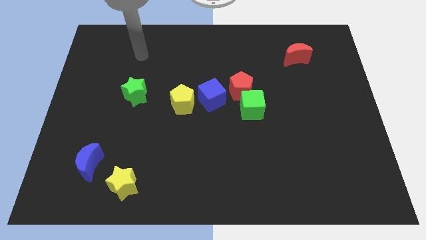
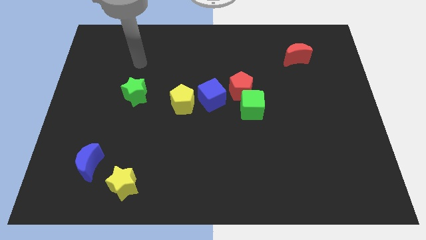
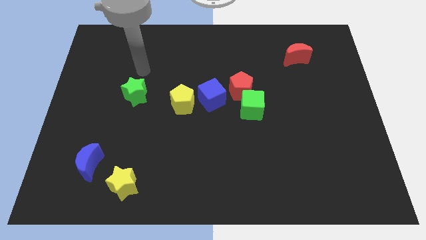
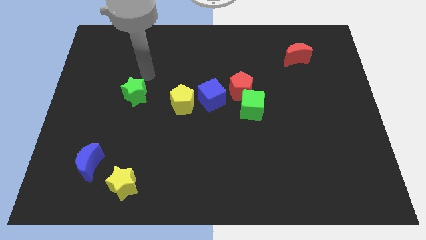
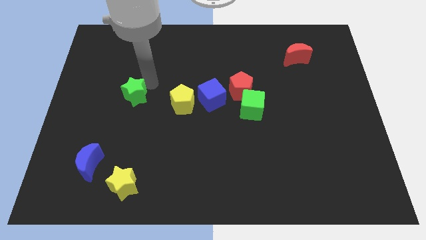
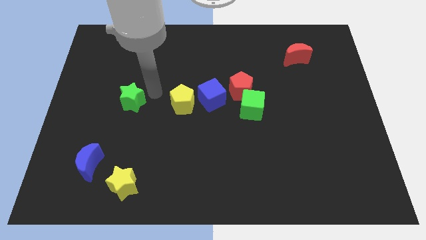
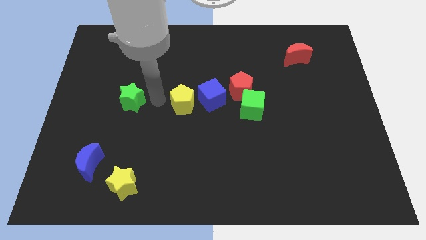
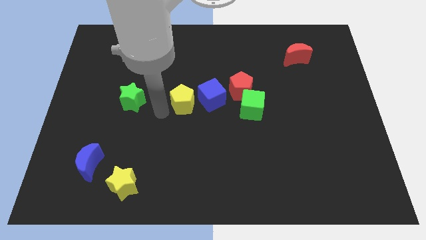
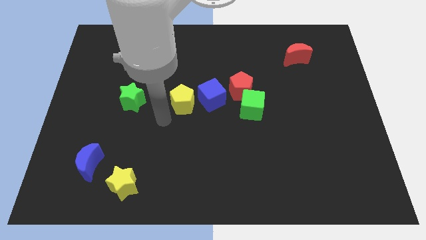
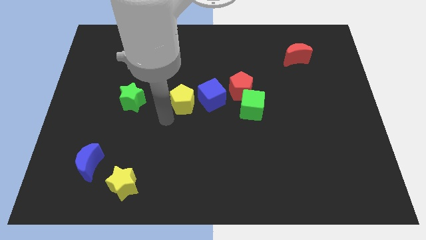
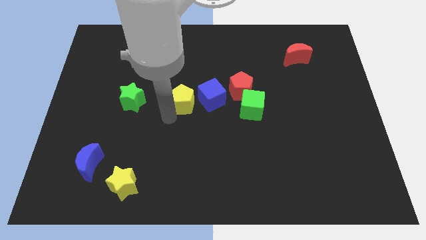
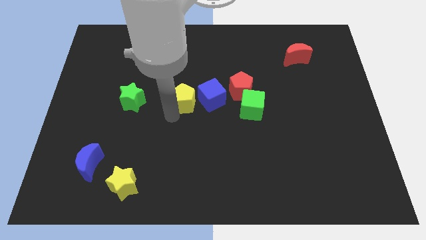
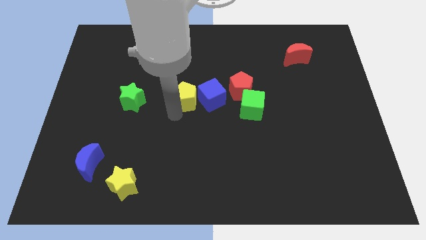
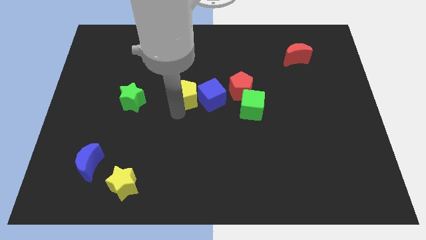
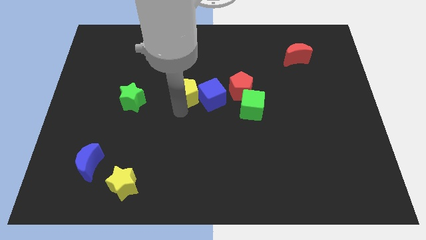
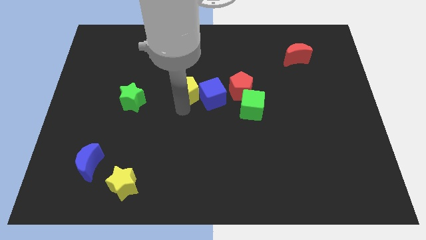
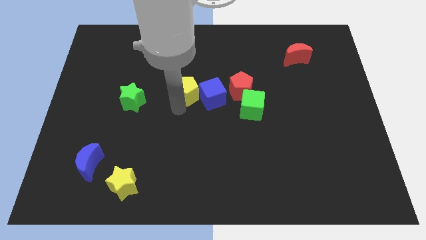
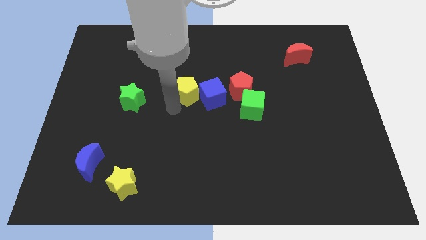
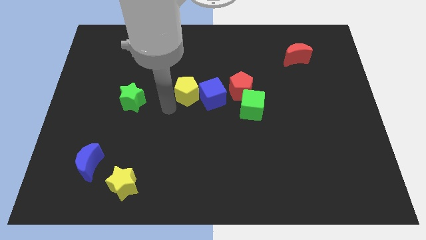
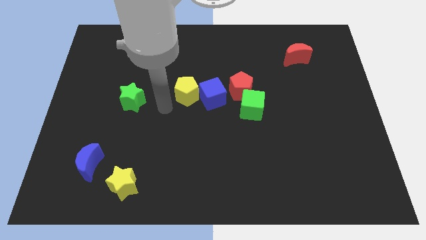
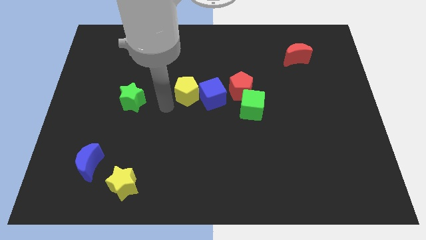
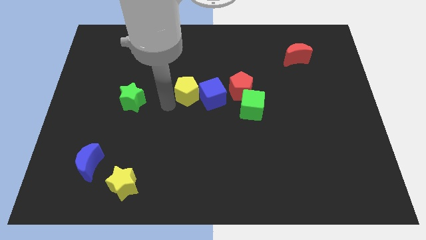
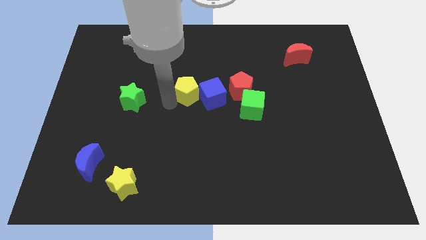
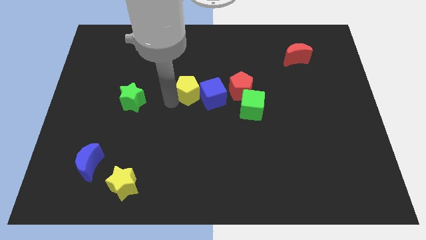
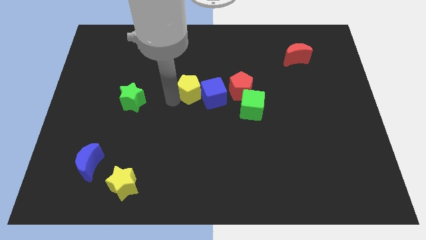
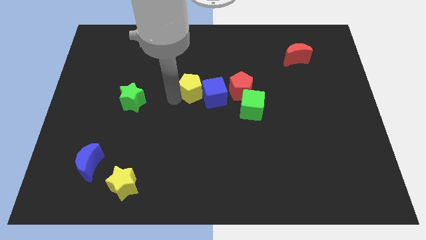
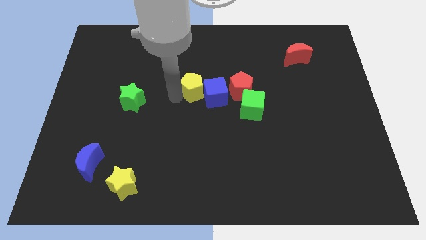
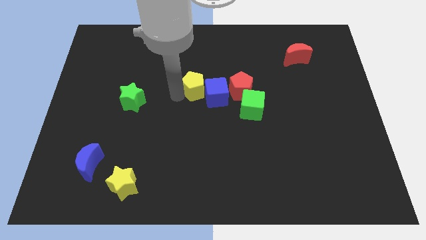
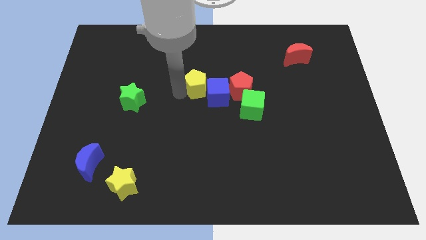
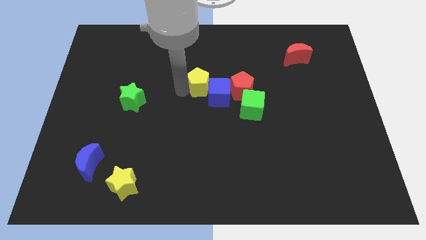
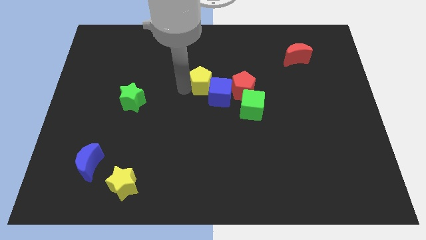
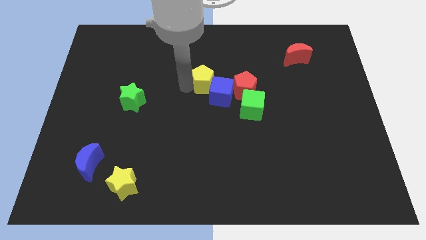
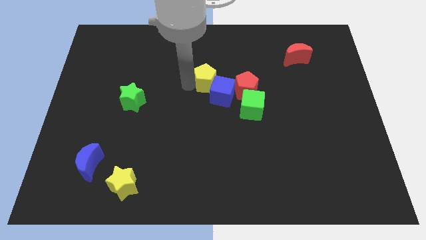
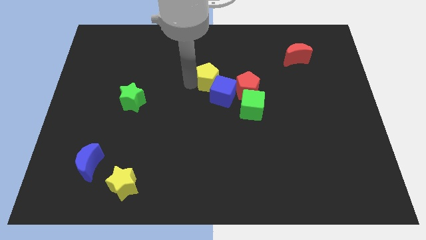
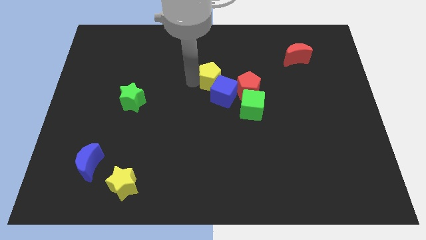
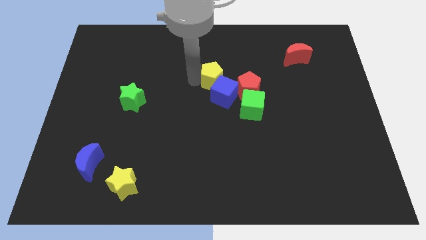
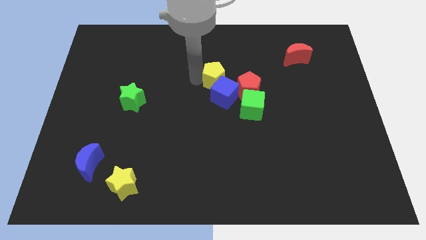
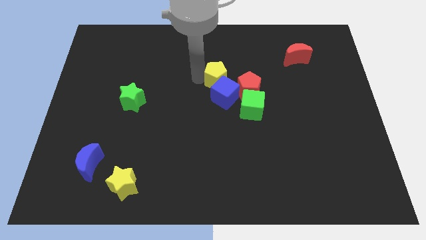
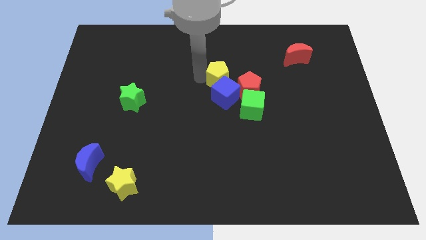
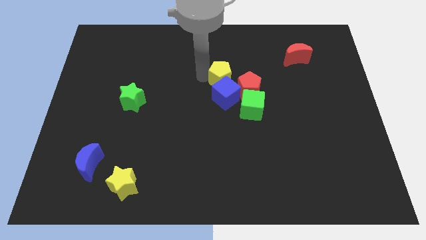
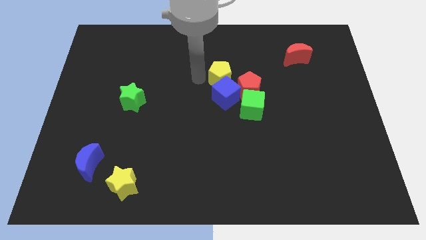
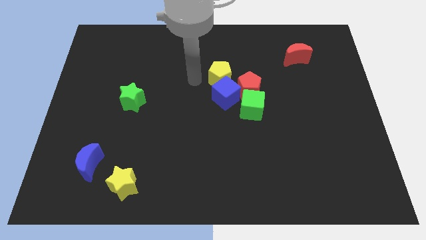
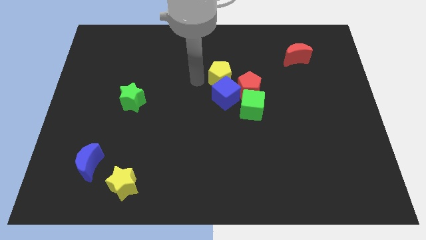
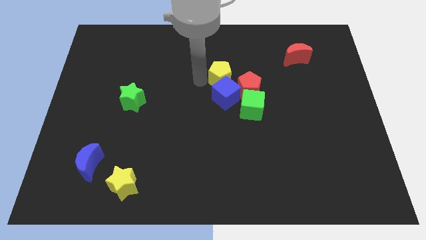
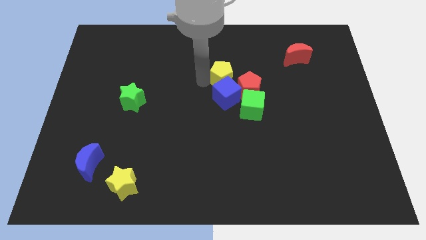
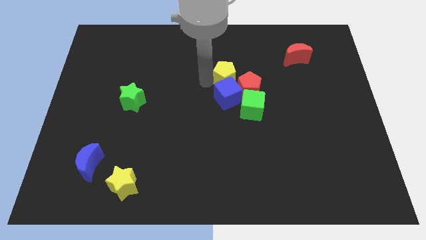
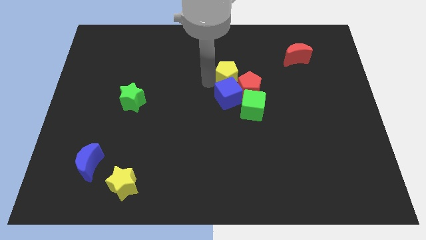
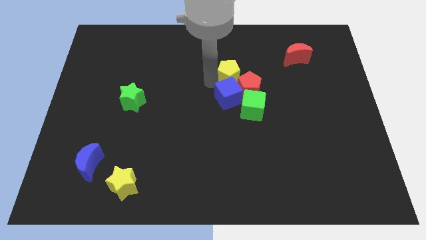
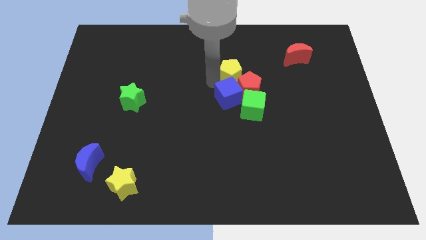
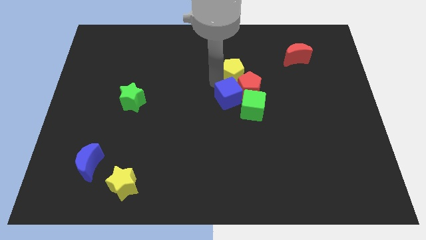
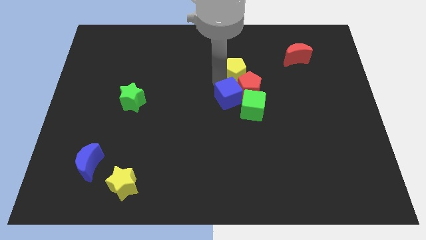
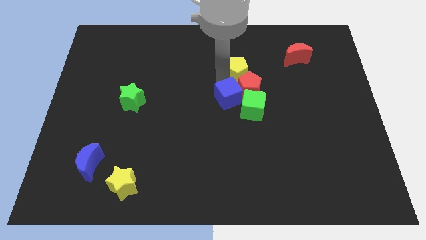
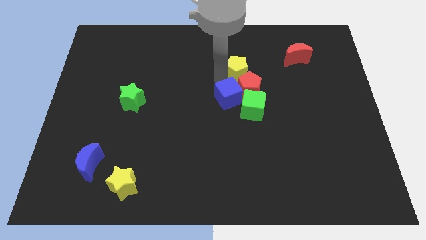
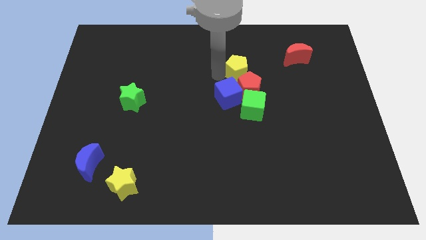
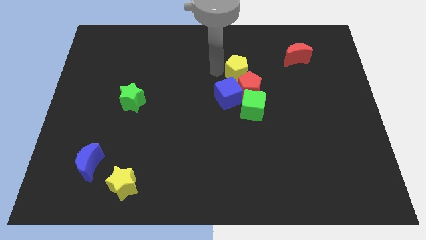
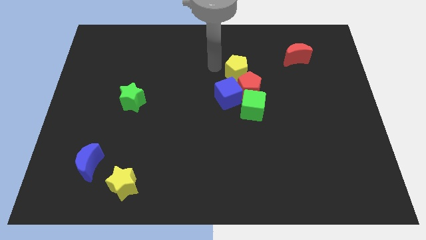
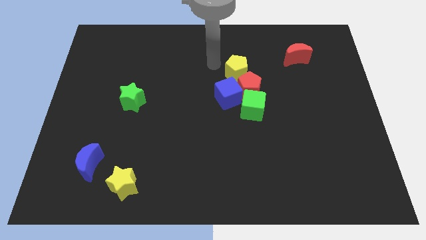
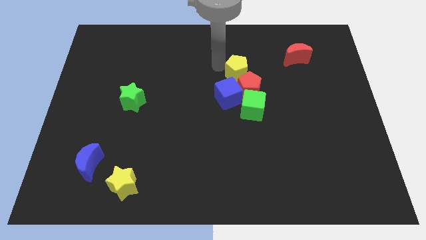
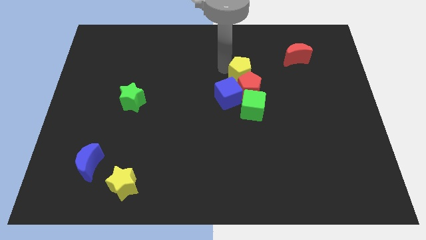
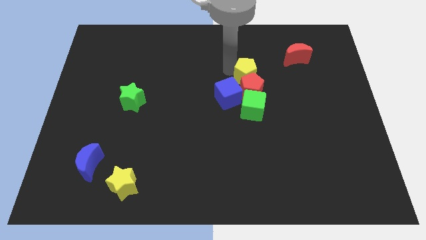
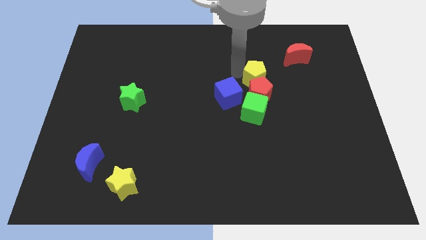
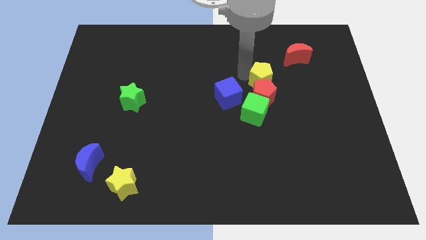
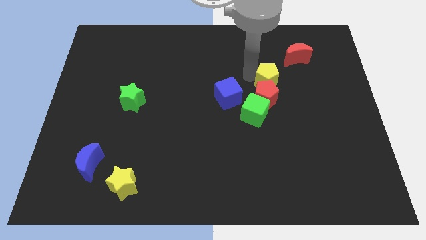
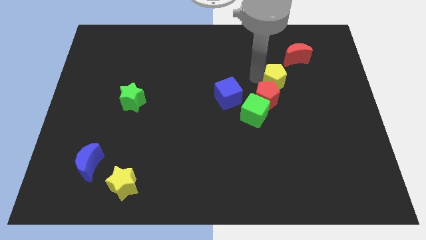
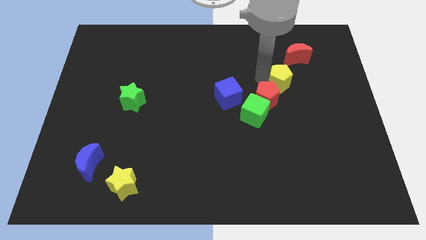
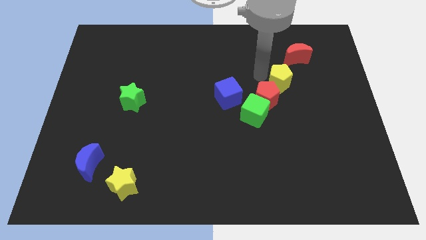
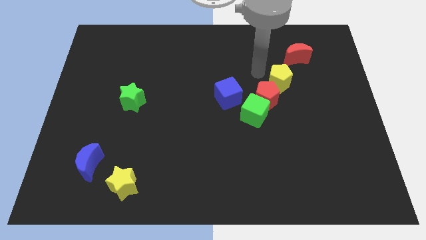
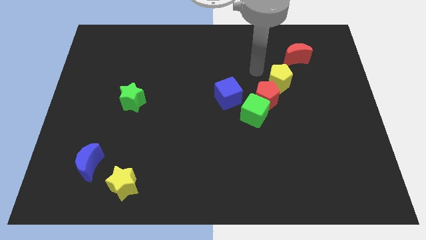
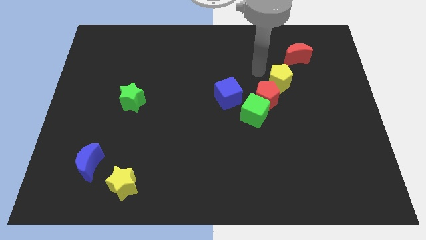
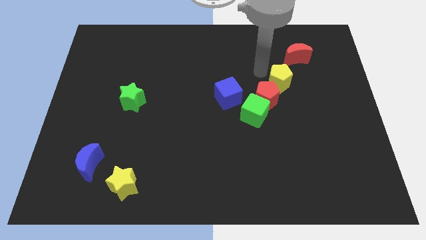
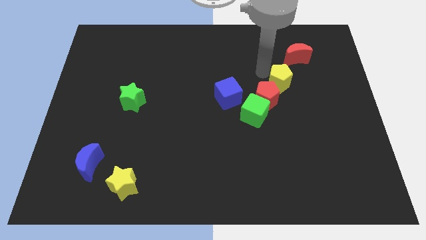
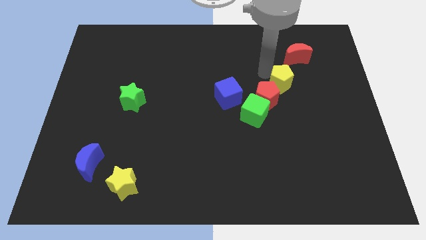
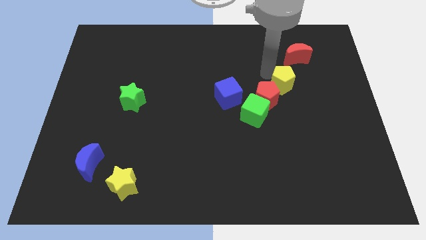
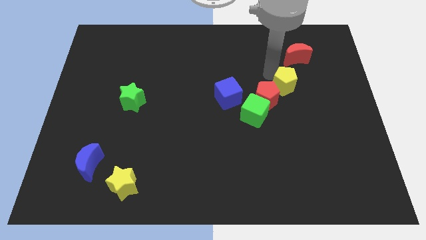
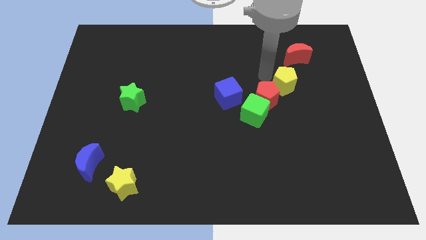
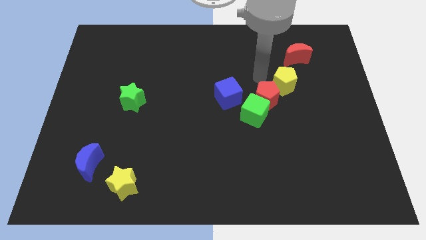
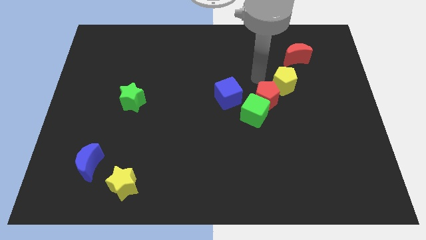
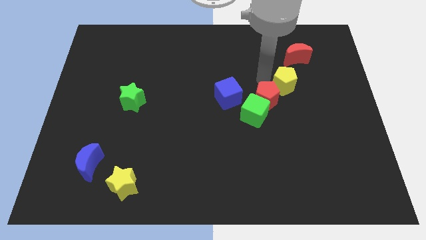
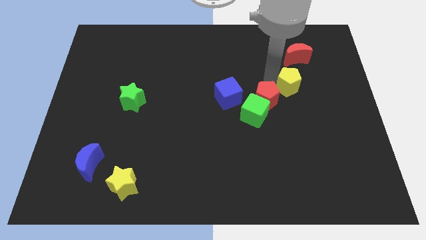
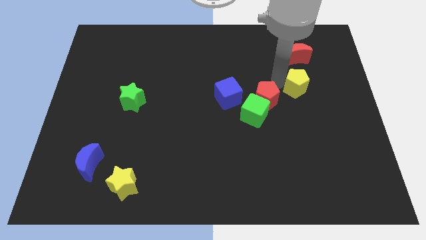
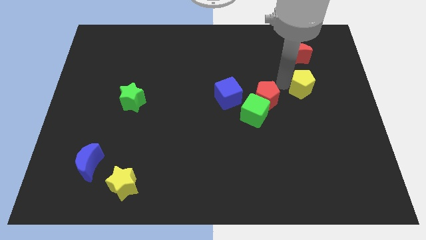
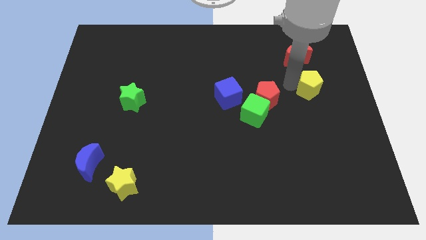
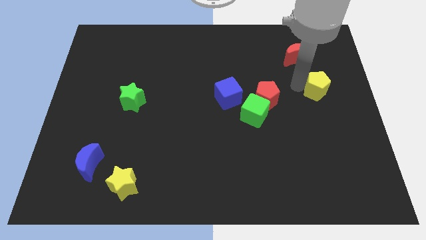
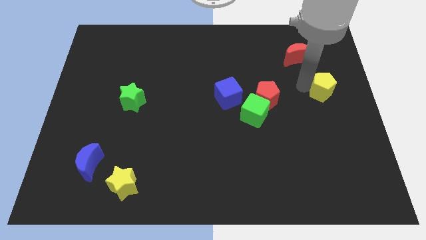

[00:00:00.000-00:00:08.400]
move the yellow pentagon to the center right
